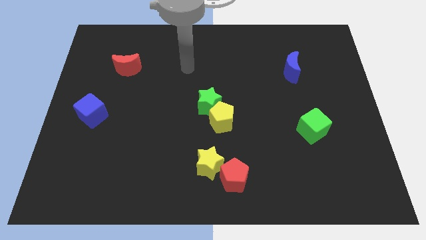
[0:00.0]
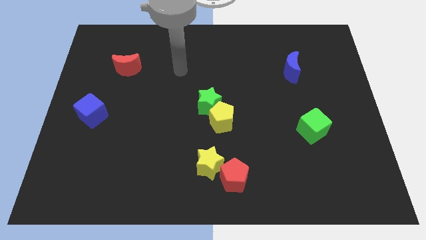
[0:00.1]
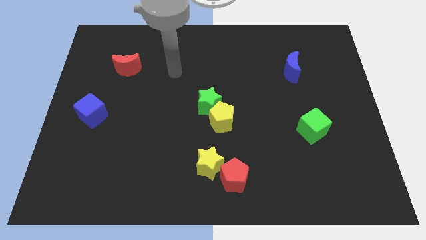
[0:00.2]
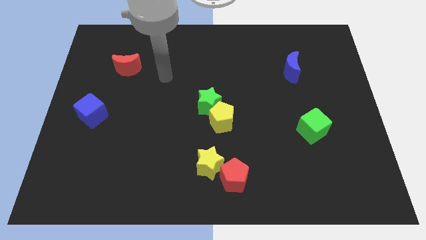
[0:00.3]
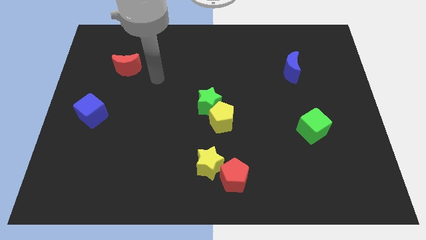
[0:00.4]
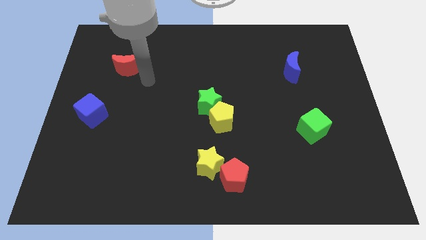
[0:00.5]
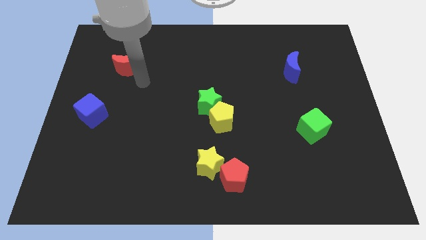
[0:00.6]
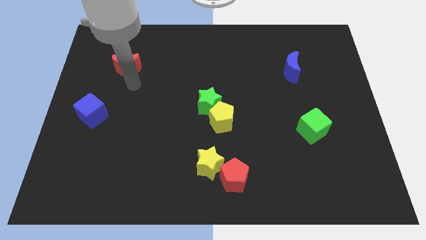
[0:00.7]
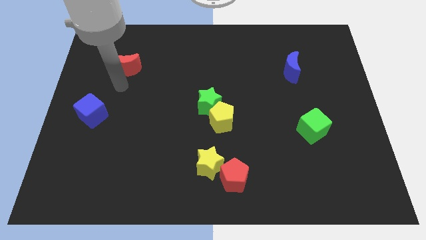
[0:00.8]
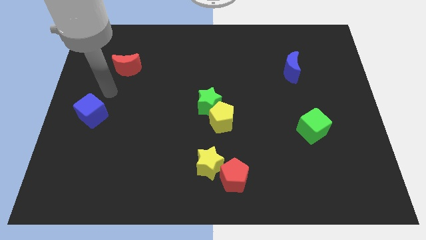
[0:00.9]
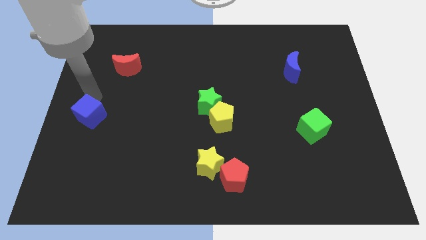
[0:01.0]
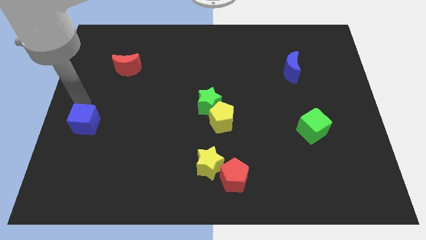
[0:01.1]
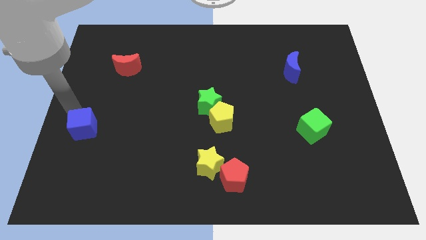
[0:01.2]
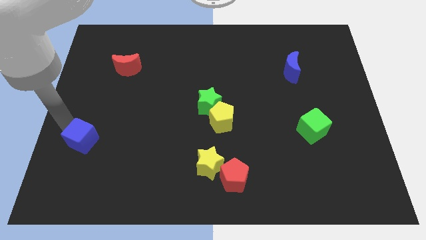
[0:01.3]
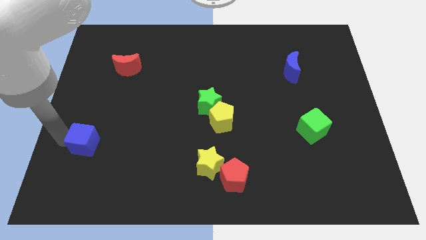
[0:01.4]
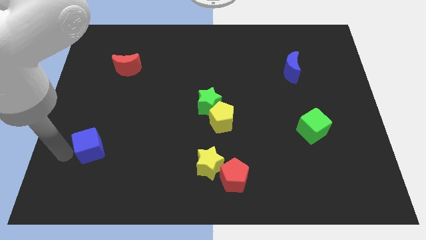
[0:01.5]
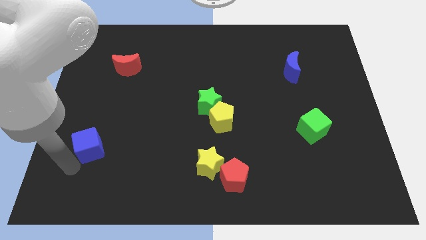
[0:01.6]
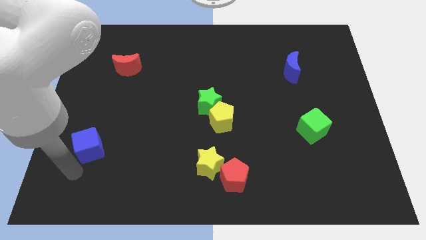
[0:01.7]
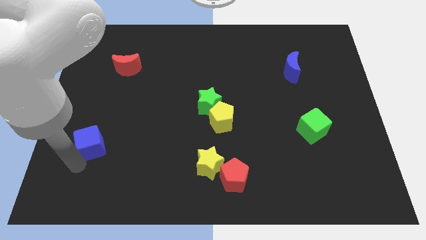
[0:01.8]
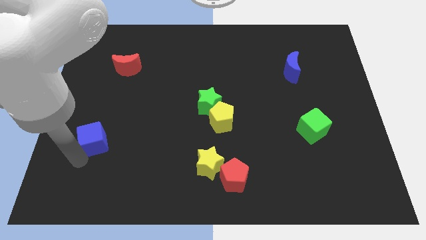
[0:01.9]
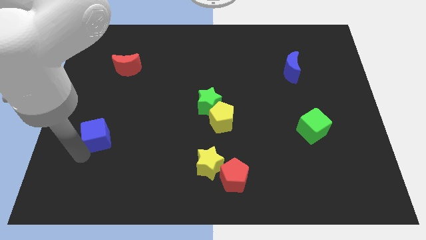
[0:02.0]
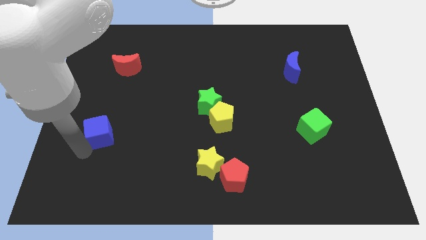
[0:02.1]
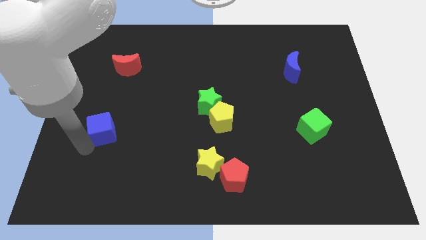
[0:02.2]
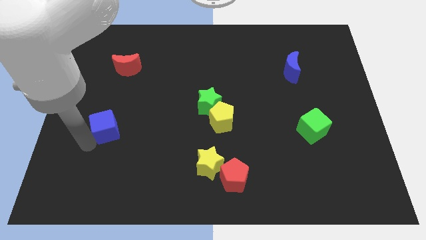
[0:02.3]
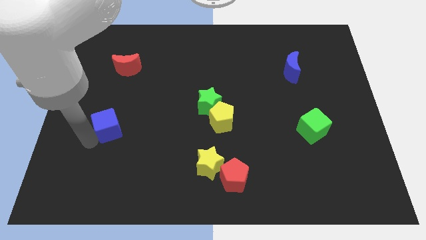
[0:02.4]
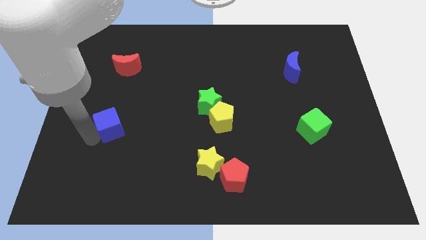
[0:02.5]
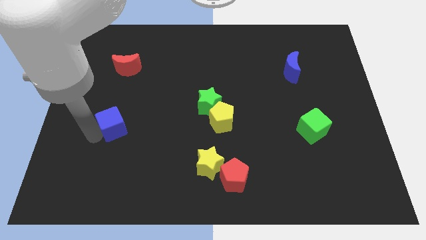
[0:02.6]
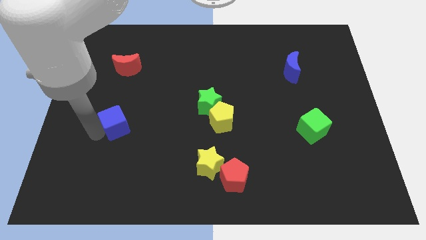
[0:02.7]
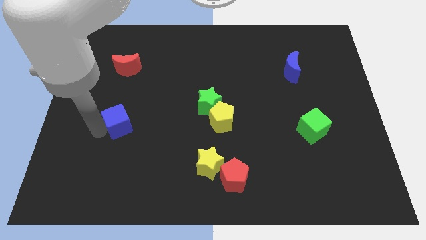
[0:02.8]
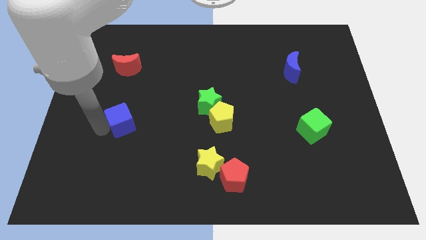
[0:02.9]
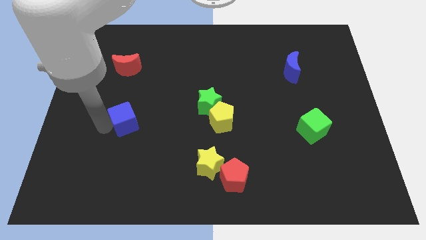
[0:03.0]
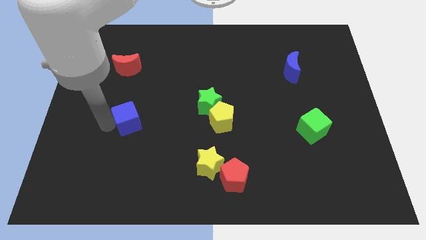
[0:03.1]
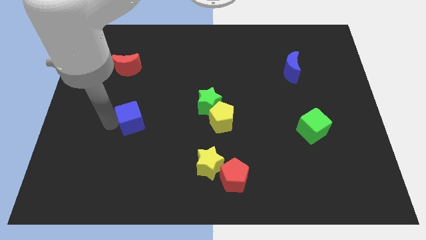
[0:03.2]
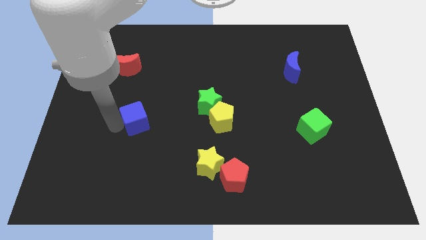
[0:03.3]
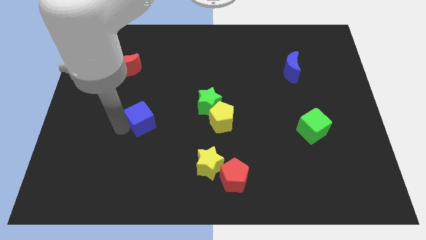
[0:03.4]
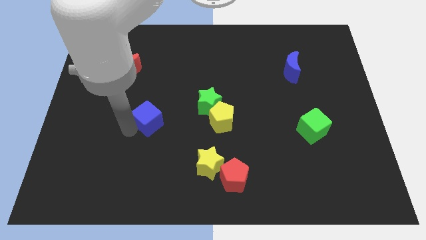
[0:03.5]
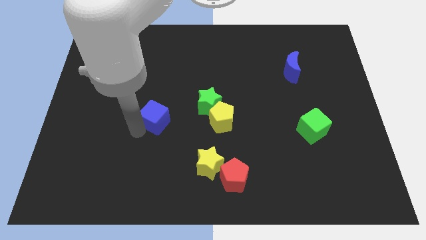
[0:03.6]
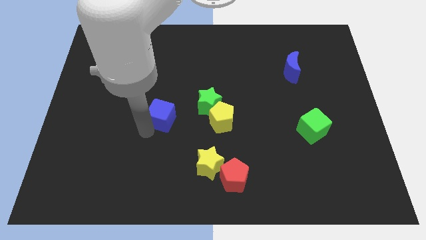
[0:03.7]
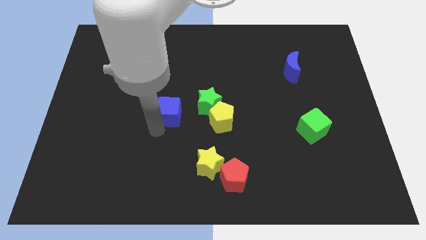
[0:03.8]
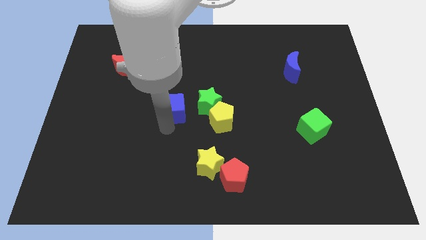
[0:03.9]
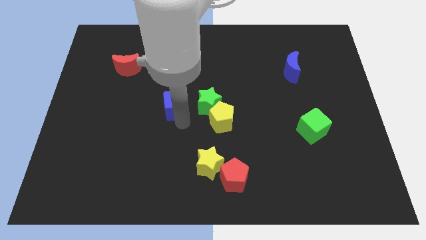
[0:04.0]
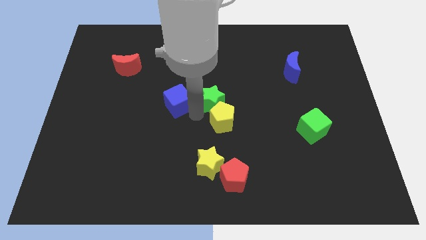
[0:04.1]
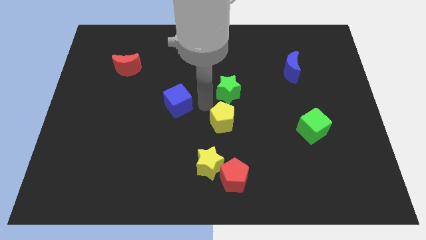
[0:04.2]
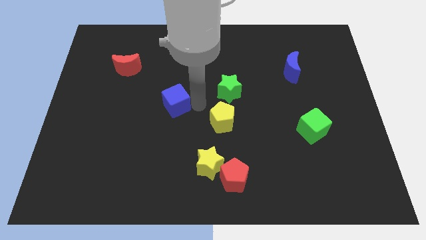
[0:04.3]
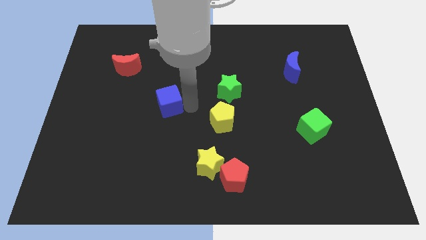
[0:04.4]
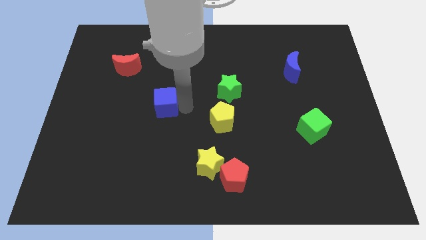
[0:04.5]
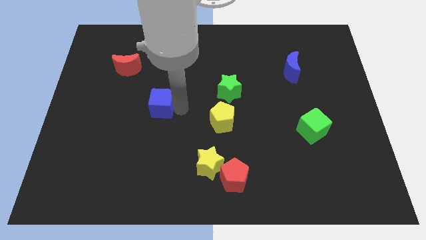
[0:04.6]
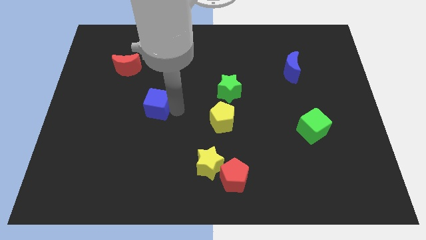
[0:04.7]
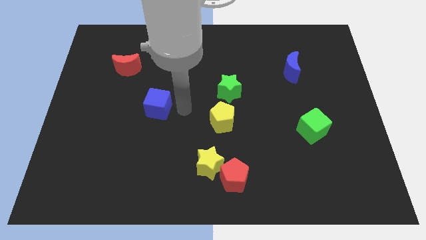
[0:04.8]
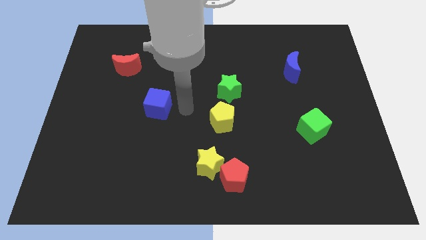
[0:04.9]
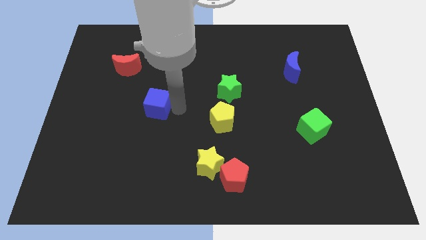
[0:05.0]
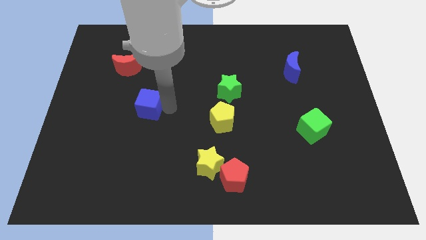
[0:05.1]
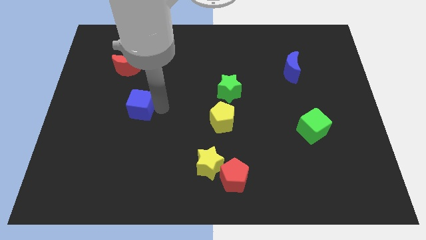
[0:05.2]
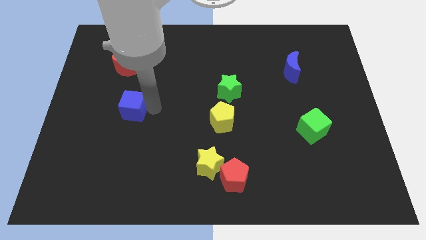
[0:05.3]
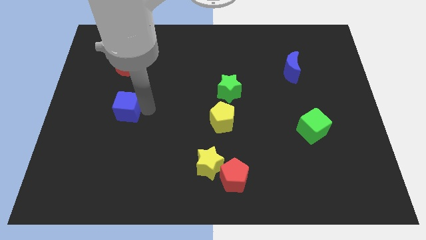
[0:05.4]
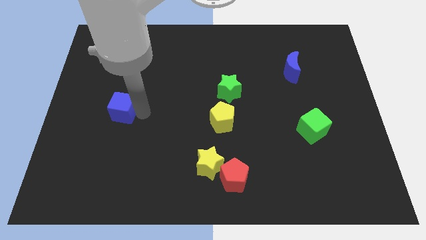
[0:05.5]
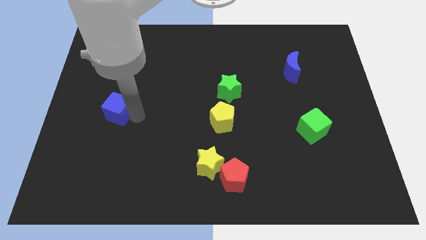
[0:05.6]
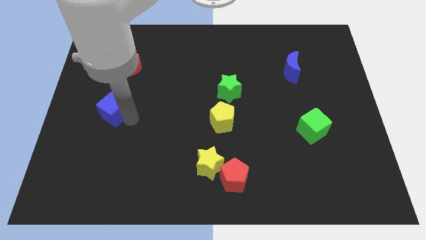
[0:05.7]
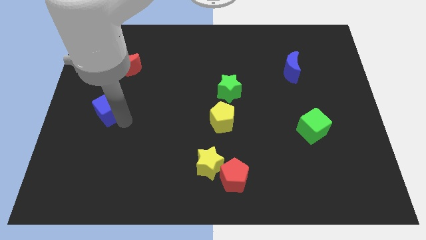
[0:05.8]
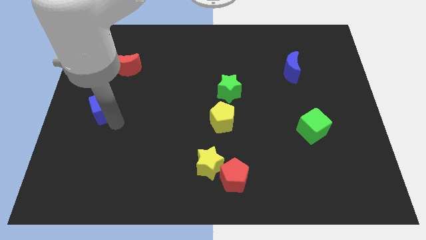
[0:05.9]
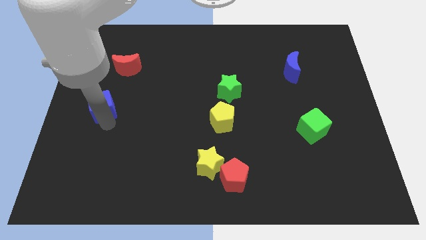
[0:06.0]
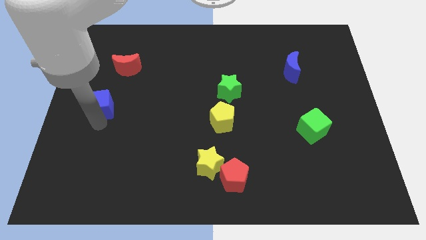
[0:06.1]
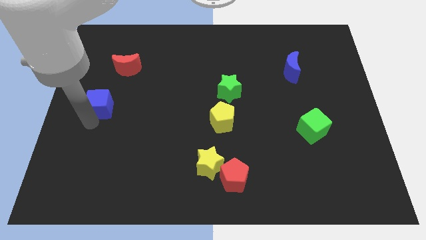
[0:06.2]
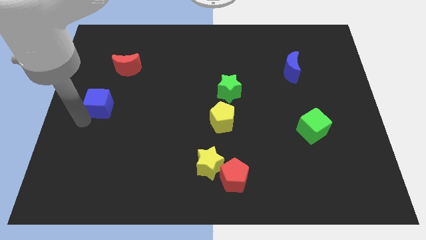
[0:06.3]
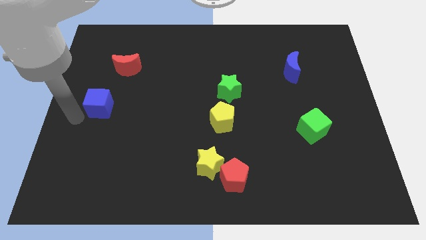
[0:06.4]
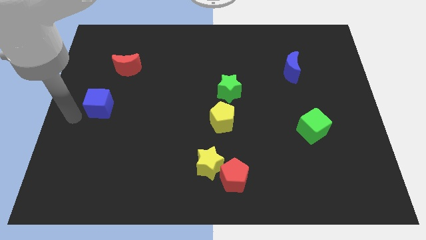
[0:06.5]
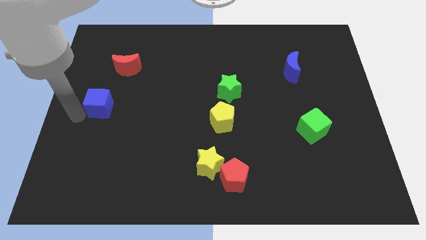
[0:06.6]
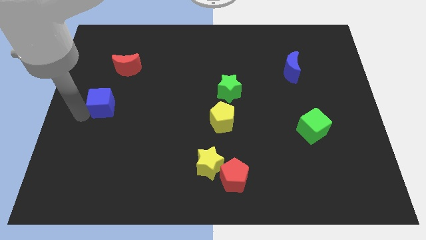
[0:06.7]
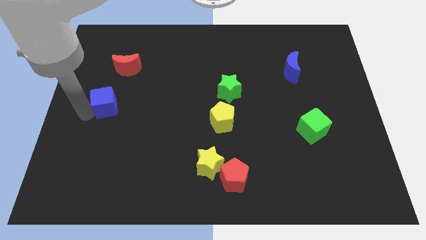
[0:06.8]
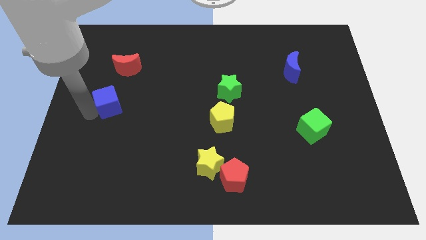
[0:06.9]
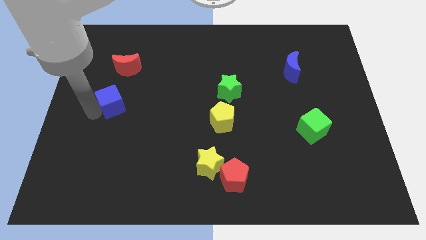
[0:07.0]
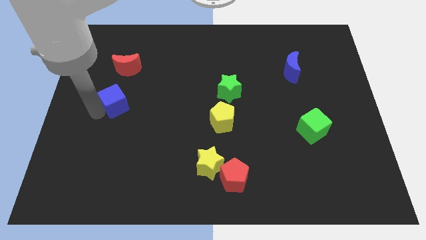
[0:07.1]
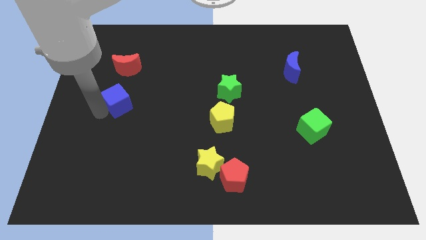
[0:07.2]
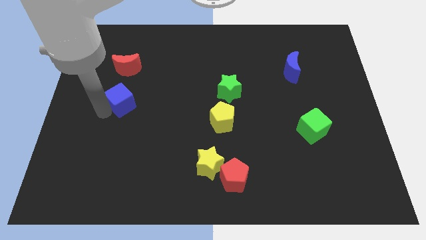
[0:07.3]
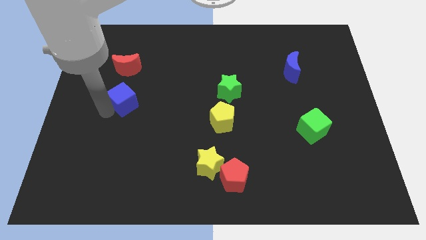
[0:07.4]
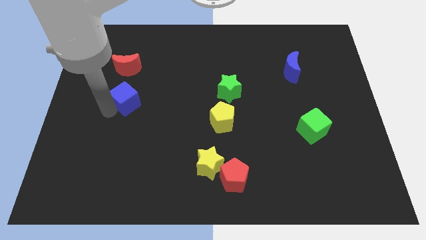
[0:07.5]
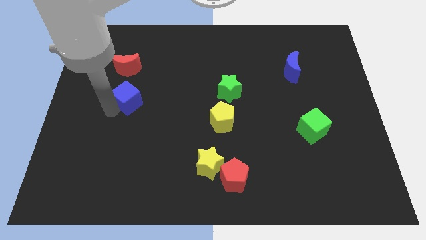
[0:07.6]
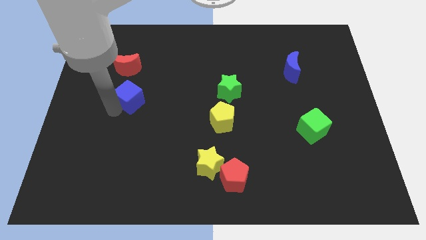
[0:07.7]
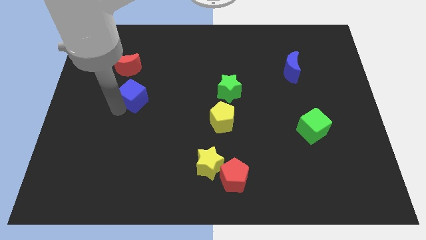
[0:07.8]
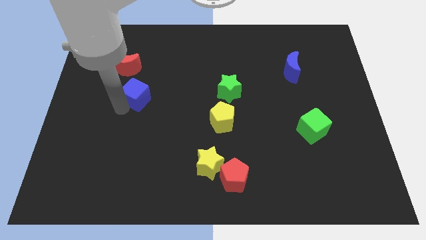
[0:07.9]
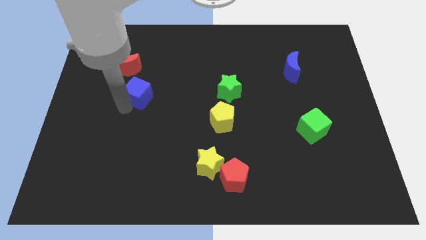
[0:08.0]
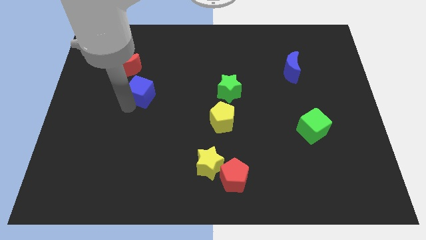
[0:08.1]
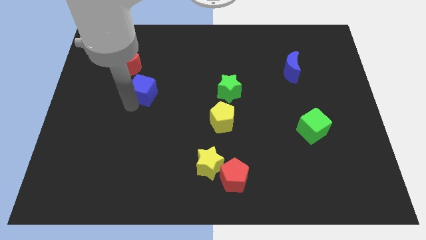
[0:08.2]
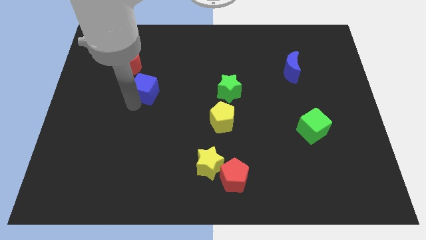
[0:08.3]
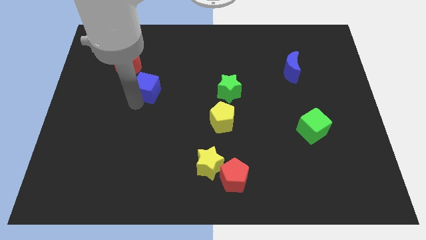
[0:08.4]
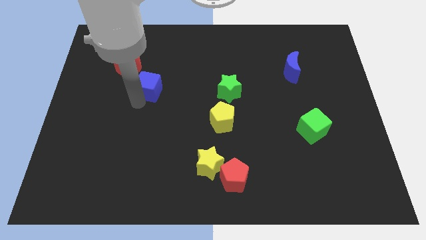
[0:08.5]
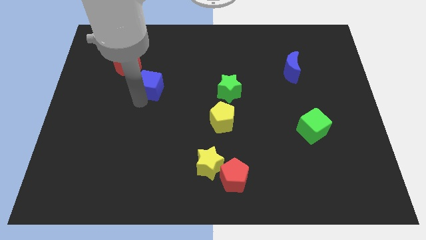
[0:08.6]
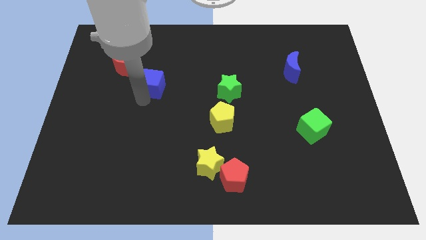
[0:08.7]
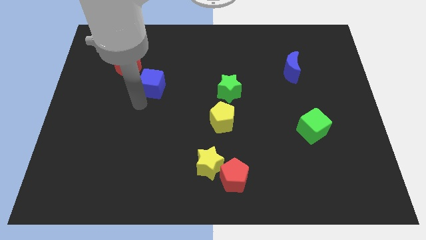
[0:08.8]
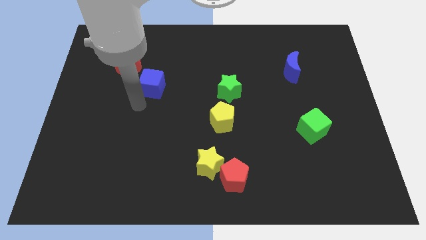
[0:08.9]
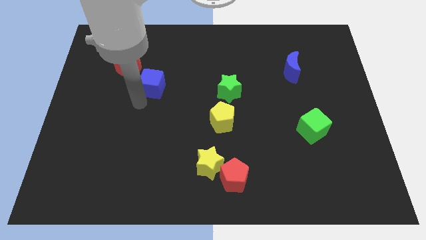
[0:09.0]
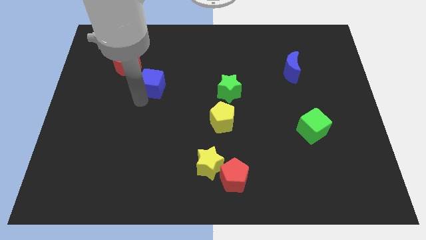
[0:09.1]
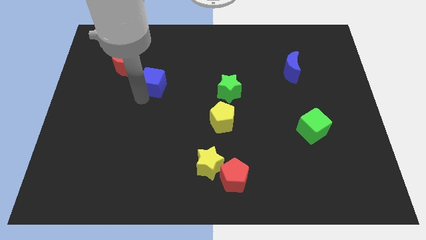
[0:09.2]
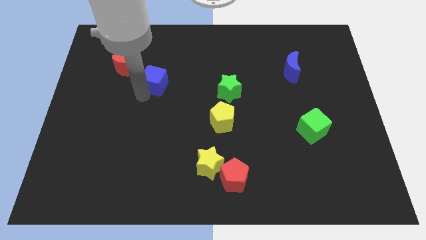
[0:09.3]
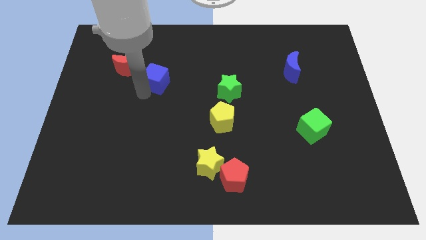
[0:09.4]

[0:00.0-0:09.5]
slide the blue cube right of the red moon
